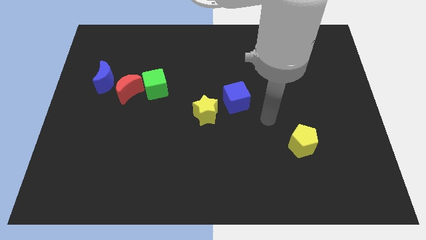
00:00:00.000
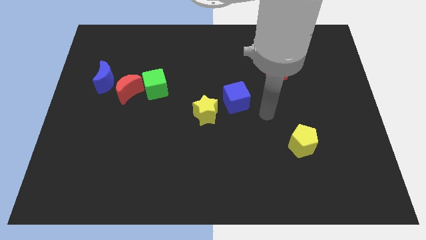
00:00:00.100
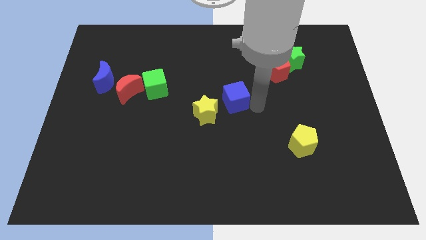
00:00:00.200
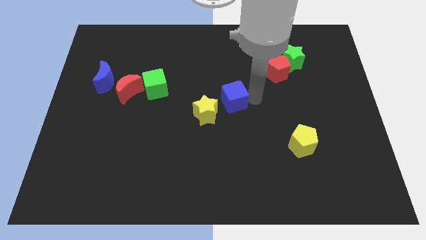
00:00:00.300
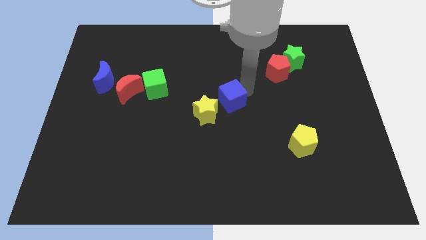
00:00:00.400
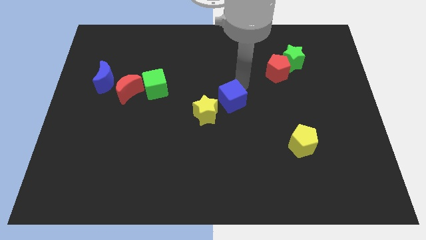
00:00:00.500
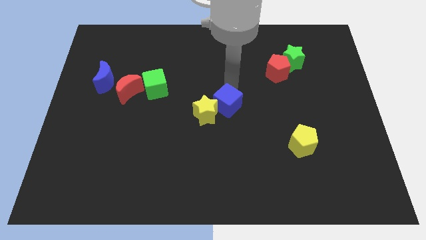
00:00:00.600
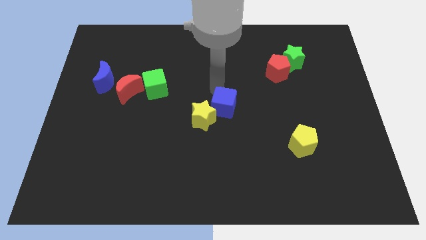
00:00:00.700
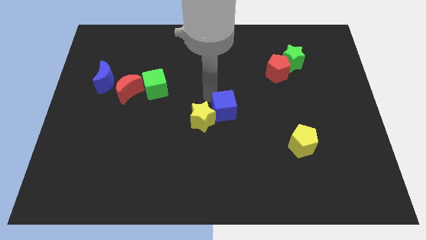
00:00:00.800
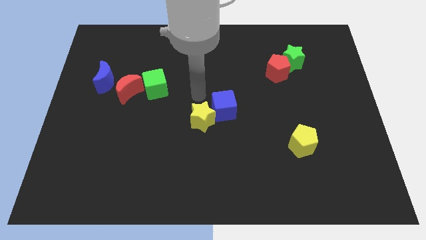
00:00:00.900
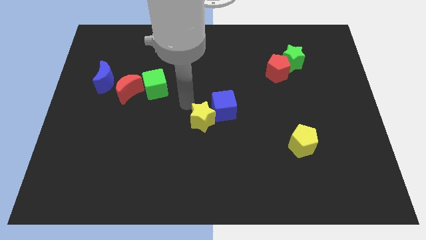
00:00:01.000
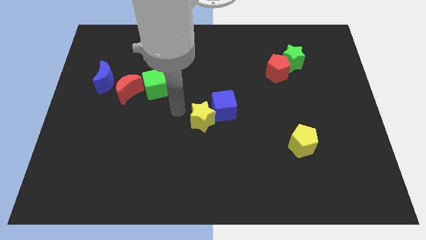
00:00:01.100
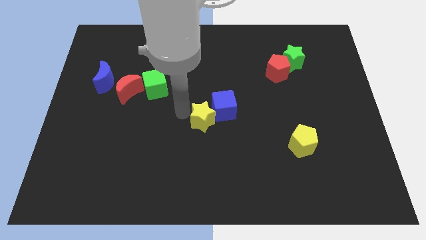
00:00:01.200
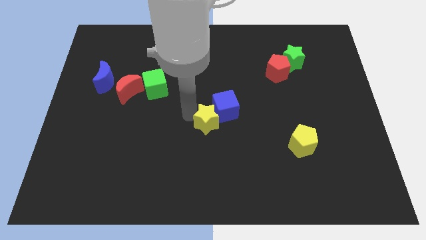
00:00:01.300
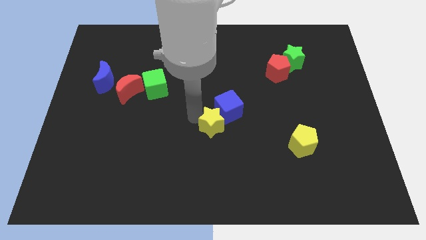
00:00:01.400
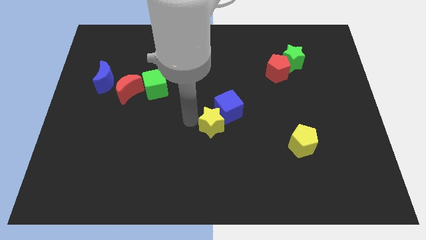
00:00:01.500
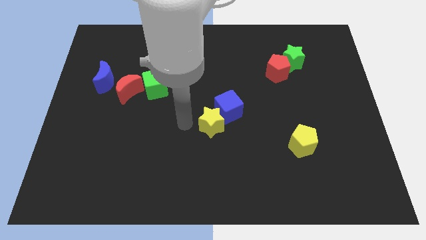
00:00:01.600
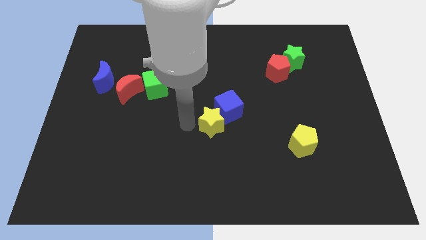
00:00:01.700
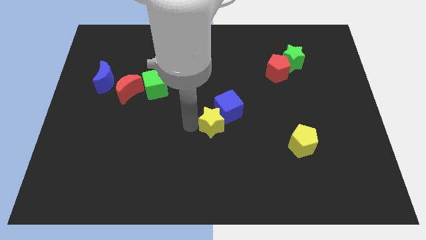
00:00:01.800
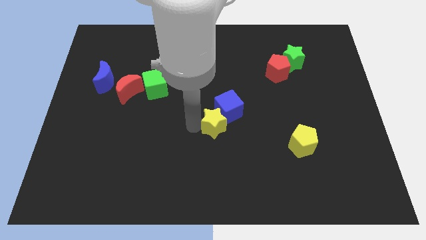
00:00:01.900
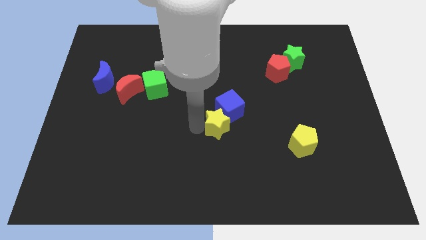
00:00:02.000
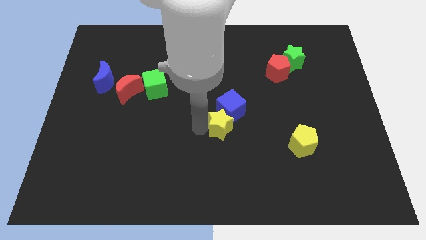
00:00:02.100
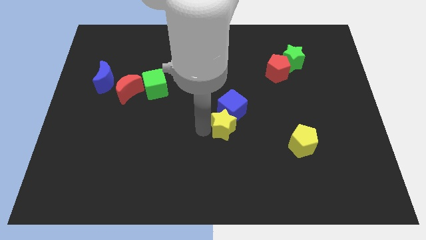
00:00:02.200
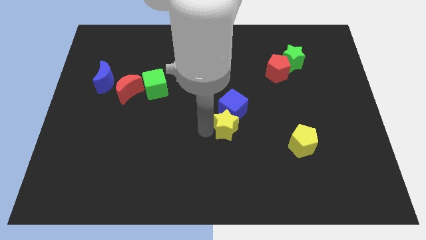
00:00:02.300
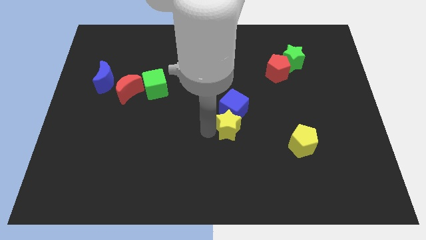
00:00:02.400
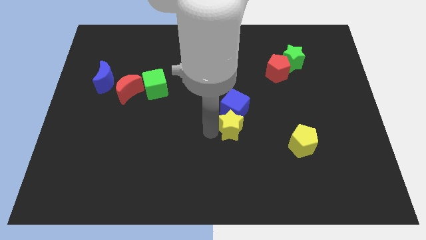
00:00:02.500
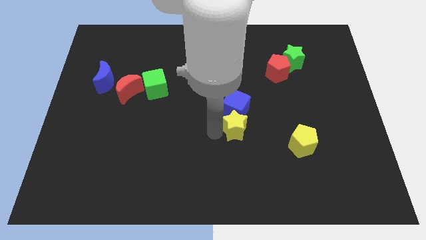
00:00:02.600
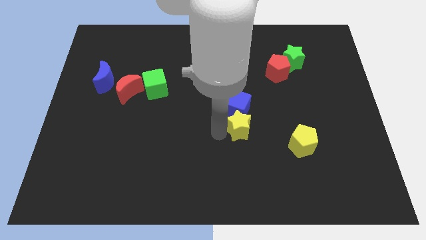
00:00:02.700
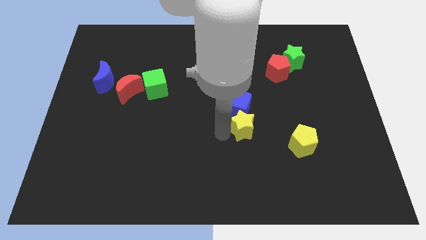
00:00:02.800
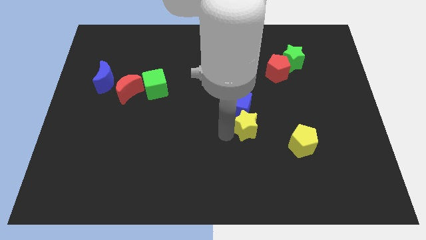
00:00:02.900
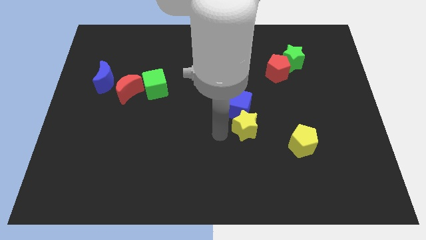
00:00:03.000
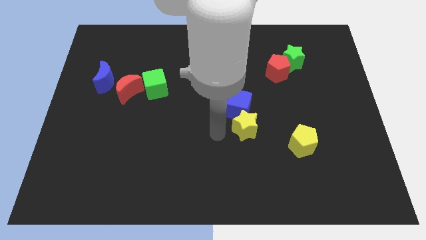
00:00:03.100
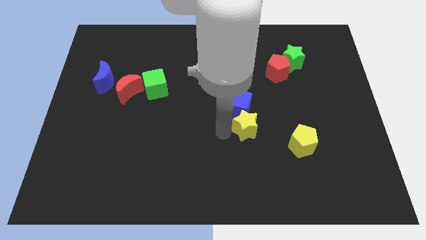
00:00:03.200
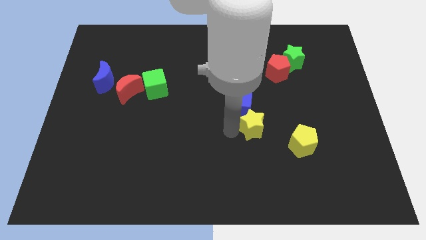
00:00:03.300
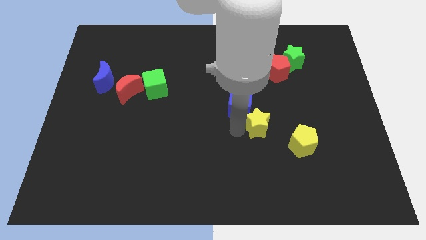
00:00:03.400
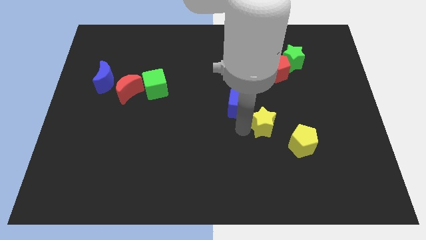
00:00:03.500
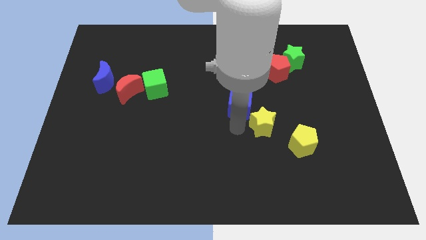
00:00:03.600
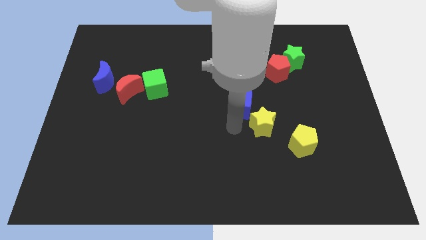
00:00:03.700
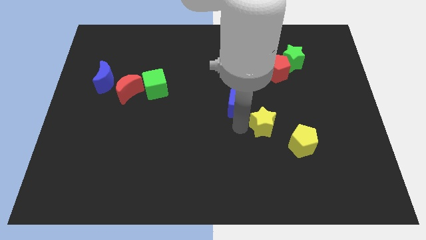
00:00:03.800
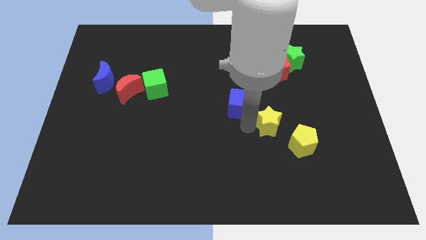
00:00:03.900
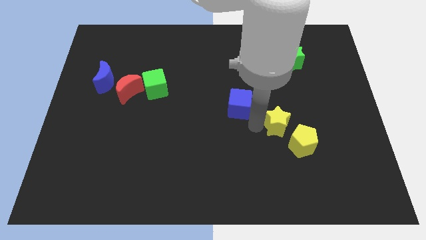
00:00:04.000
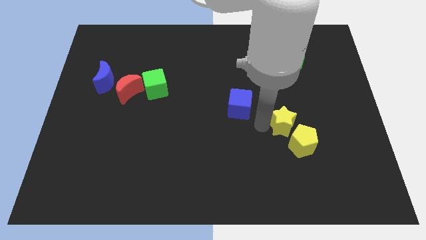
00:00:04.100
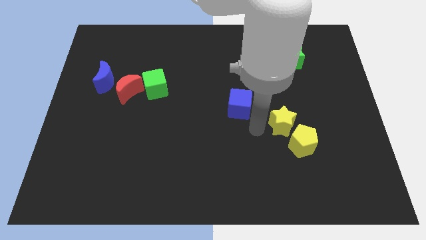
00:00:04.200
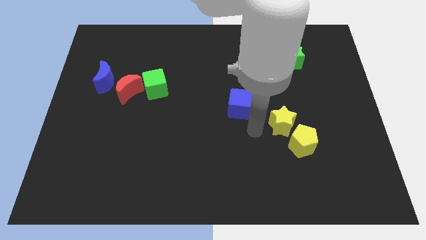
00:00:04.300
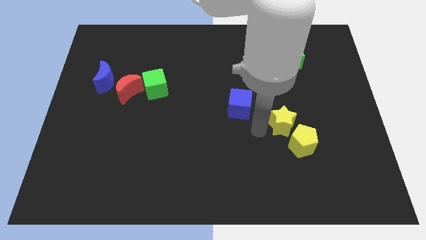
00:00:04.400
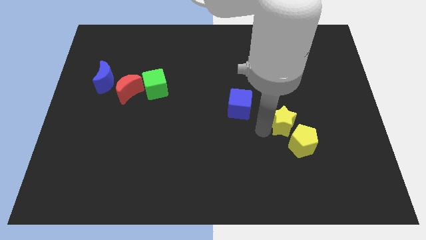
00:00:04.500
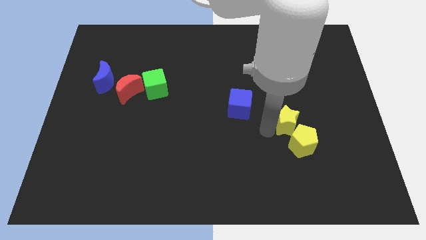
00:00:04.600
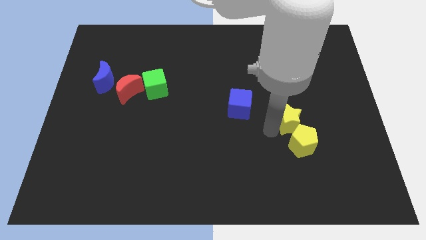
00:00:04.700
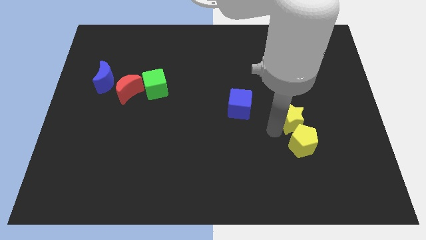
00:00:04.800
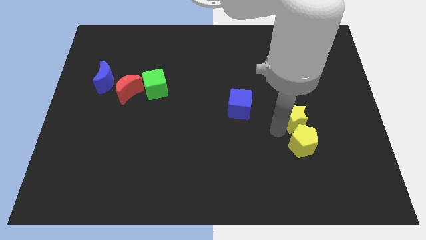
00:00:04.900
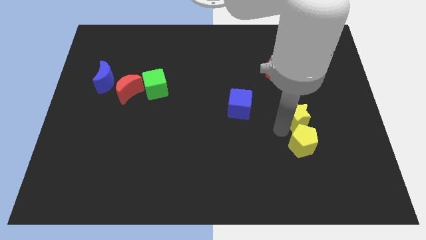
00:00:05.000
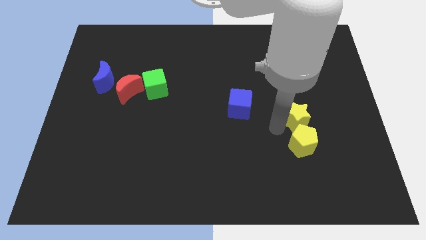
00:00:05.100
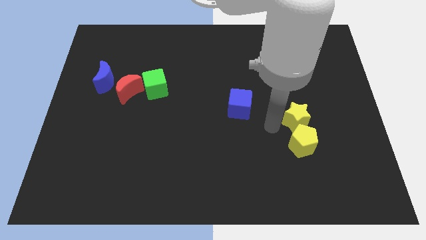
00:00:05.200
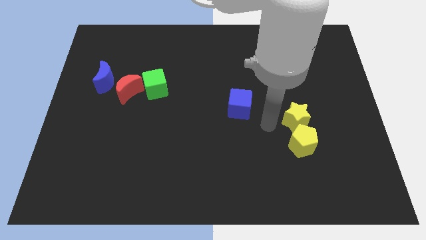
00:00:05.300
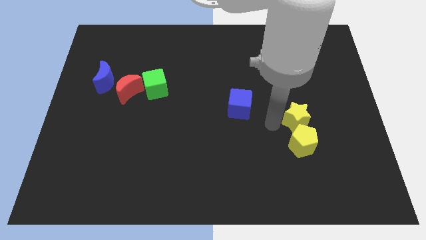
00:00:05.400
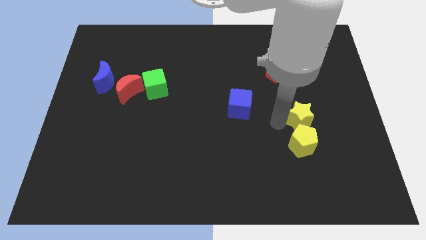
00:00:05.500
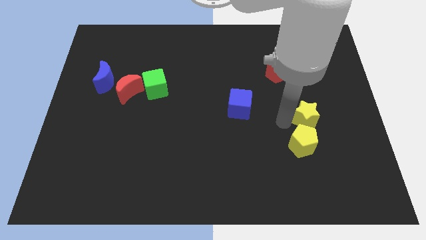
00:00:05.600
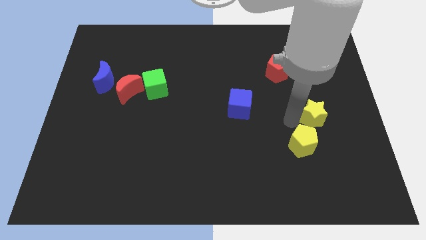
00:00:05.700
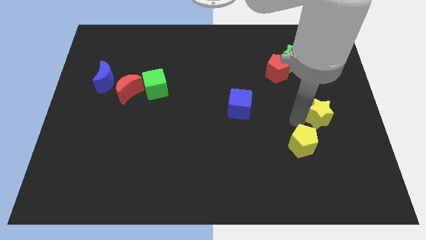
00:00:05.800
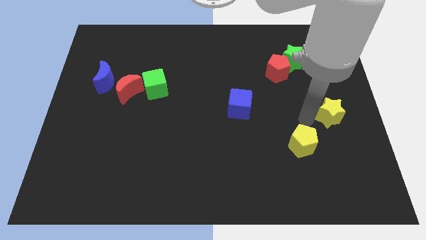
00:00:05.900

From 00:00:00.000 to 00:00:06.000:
slide the yellow star to the center right
